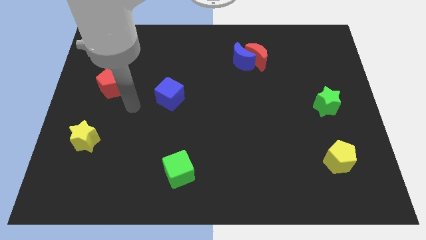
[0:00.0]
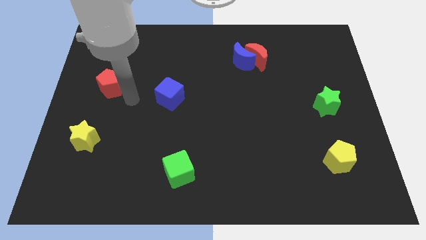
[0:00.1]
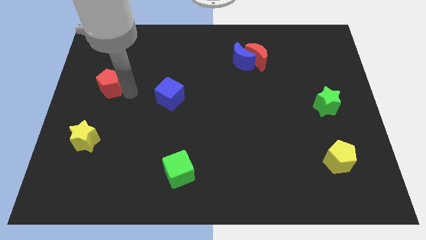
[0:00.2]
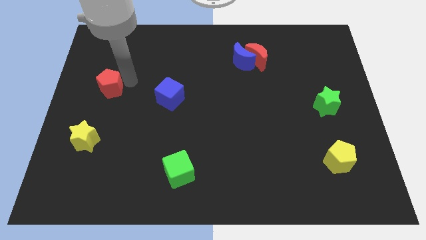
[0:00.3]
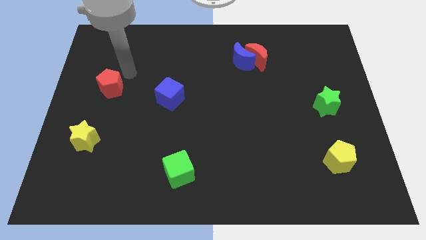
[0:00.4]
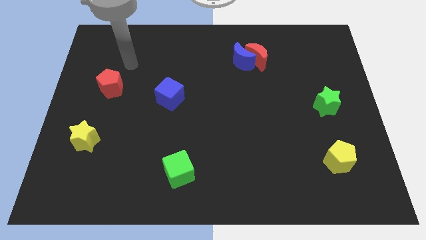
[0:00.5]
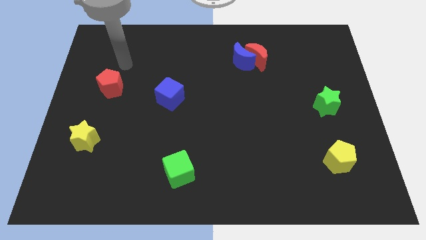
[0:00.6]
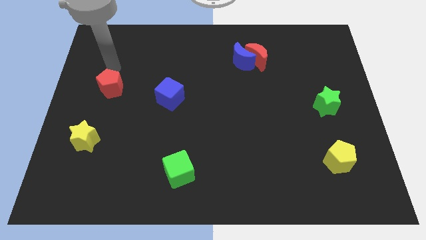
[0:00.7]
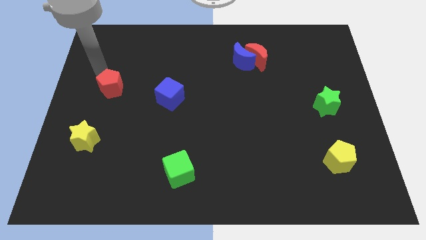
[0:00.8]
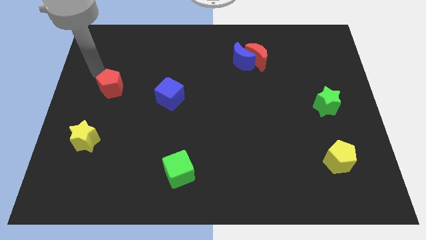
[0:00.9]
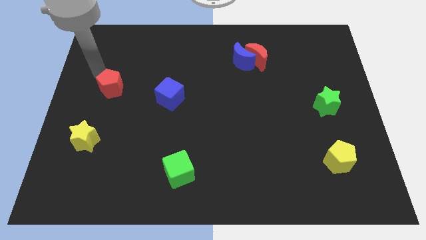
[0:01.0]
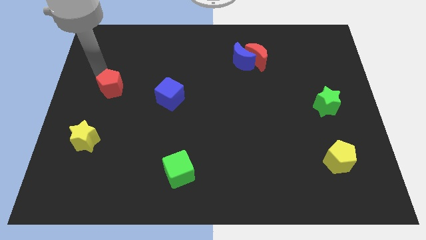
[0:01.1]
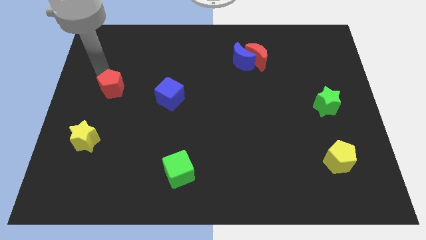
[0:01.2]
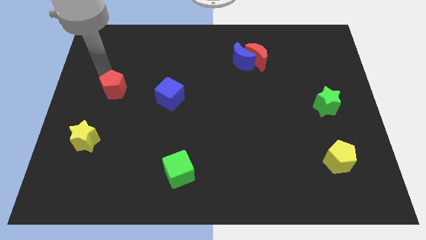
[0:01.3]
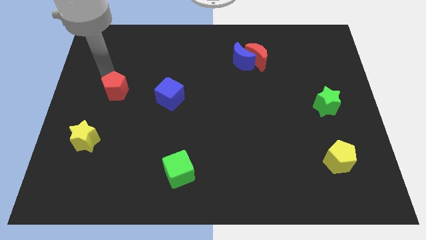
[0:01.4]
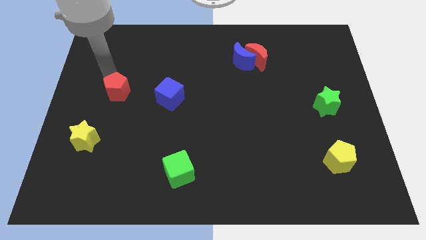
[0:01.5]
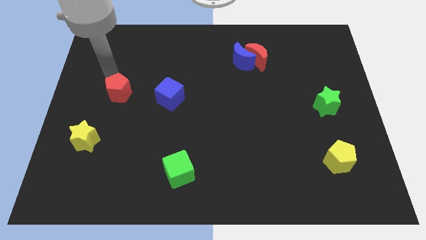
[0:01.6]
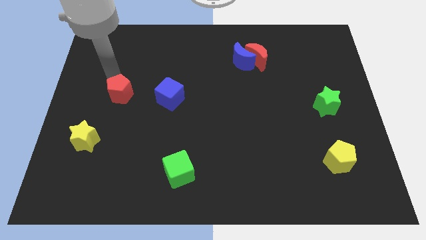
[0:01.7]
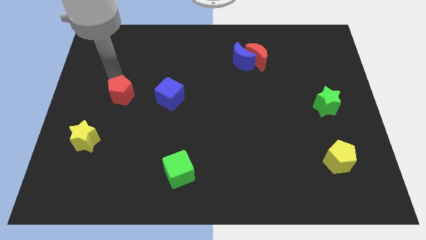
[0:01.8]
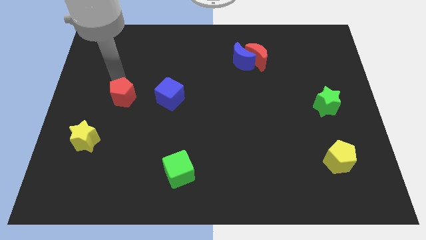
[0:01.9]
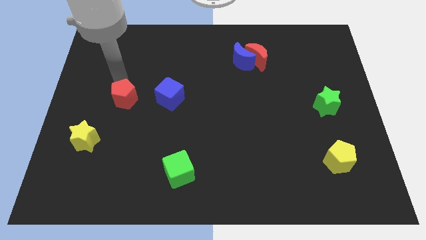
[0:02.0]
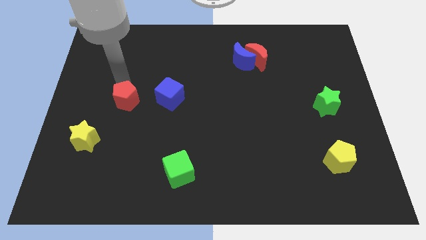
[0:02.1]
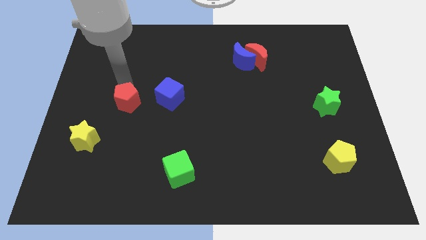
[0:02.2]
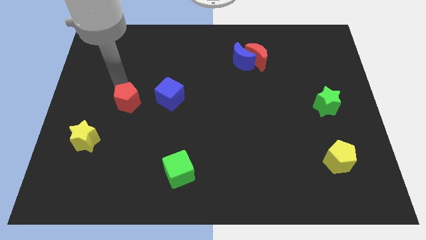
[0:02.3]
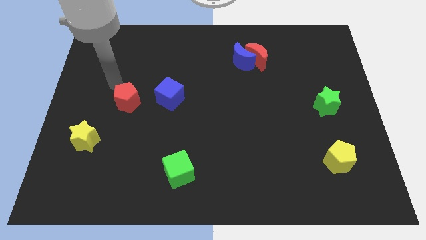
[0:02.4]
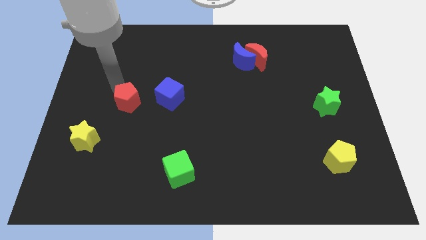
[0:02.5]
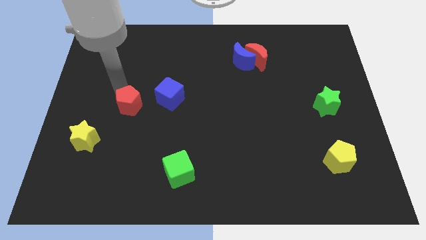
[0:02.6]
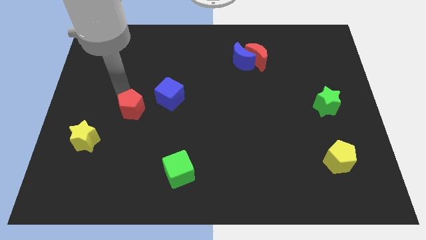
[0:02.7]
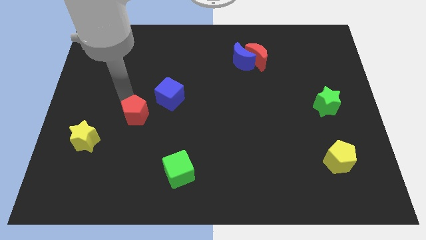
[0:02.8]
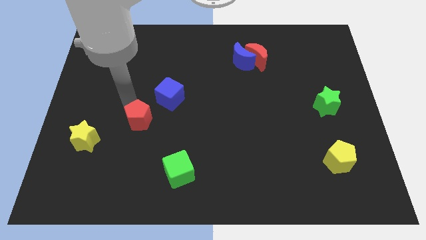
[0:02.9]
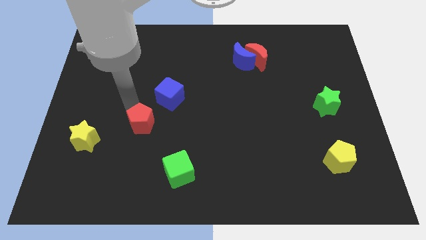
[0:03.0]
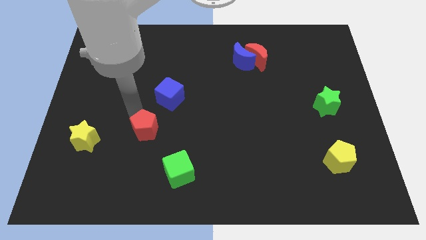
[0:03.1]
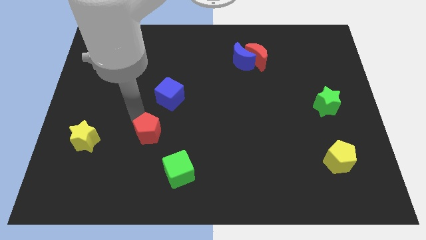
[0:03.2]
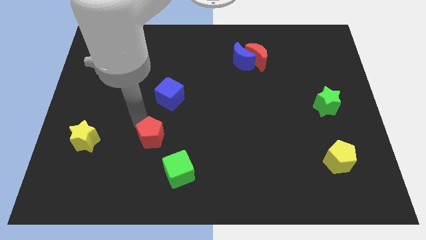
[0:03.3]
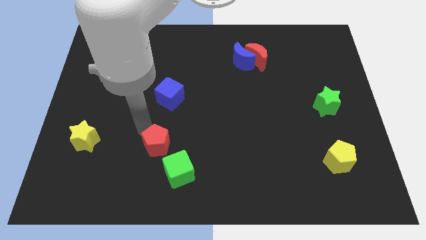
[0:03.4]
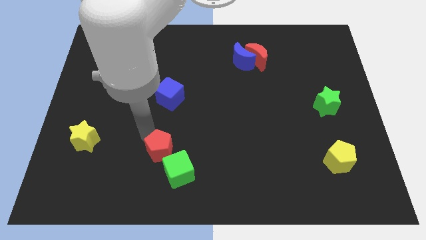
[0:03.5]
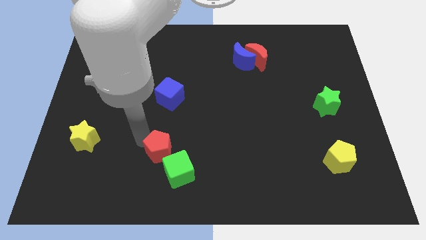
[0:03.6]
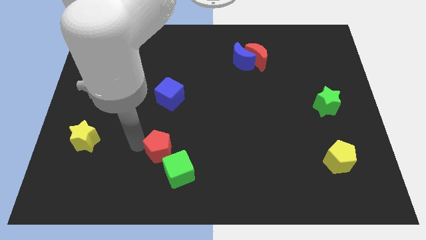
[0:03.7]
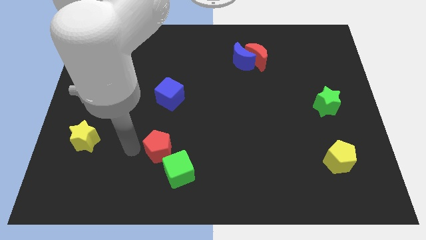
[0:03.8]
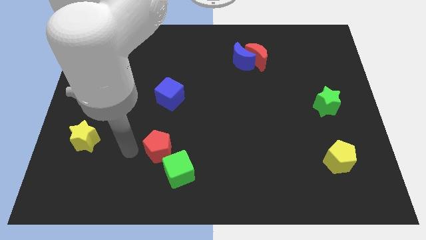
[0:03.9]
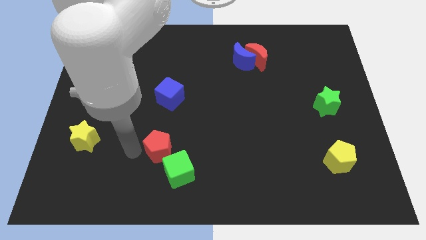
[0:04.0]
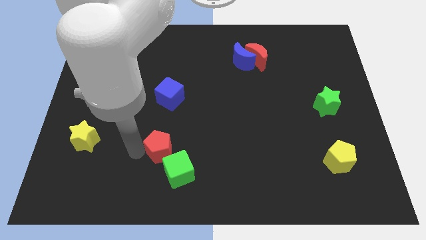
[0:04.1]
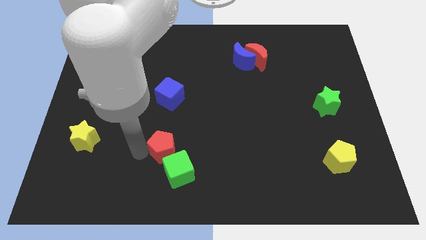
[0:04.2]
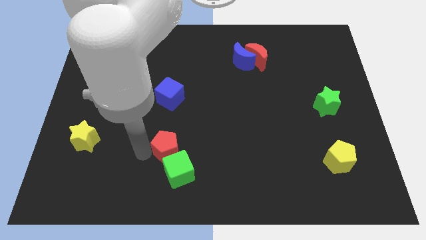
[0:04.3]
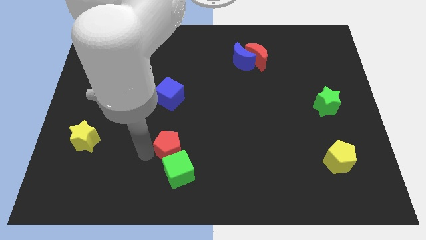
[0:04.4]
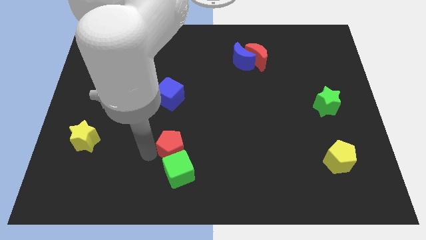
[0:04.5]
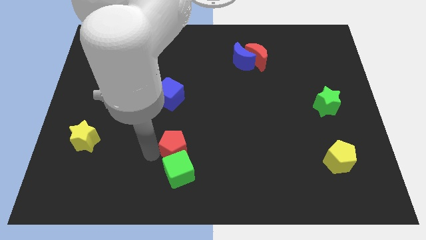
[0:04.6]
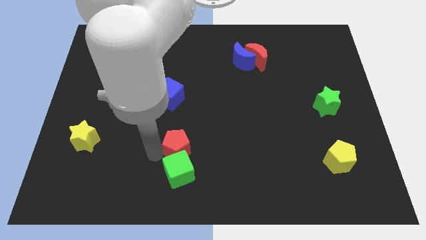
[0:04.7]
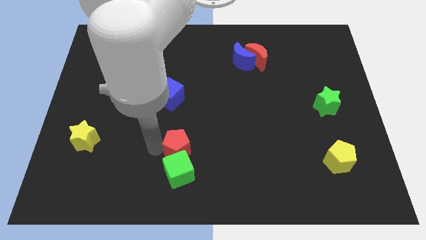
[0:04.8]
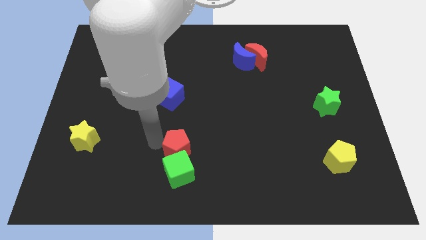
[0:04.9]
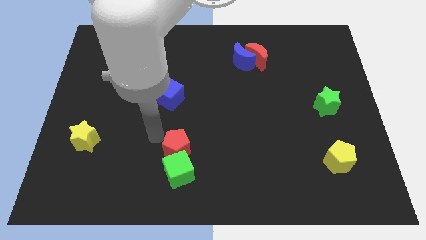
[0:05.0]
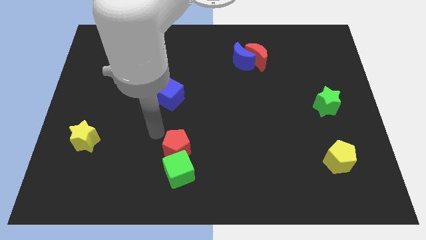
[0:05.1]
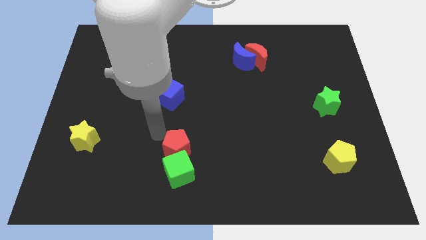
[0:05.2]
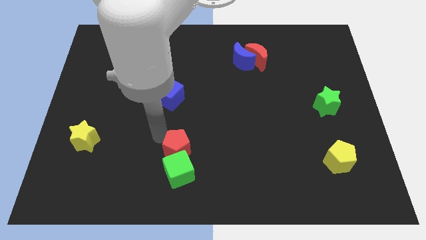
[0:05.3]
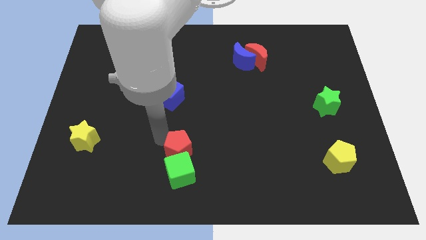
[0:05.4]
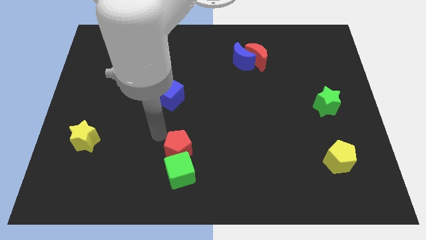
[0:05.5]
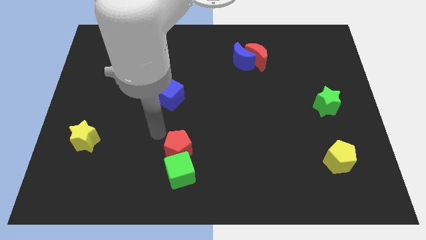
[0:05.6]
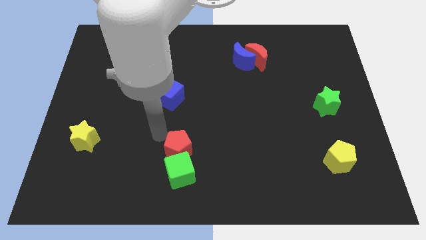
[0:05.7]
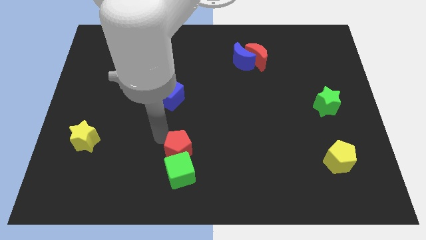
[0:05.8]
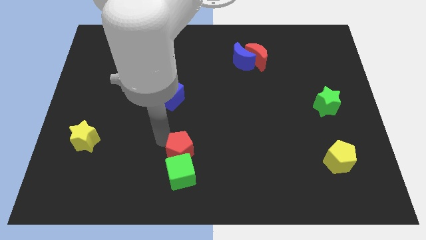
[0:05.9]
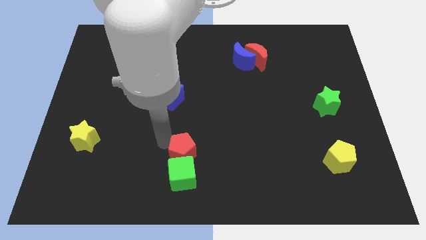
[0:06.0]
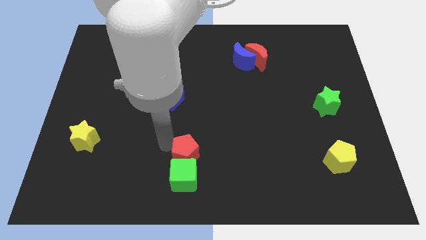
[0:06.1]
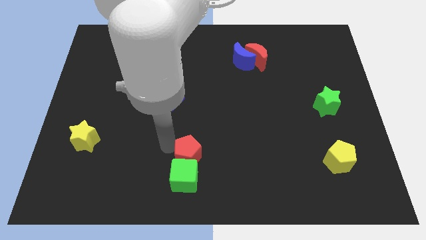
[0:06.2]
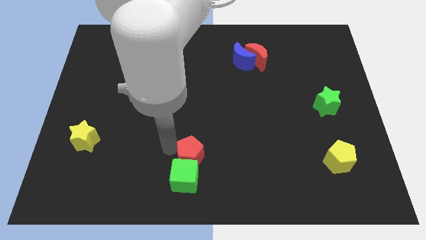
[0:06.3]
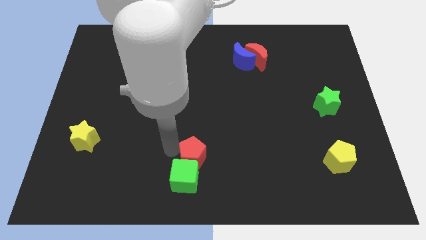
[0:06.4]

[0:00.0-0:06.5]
slide the red pentagon to the bottom side
